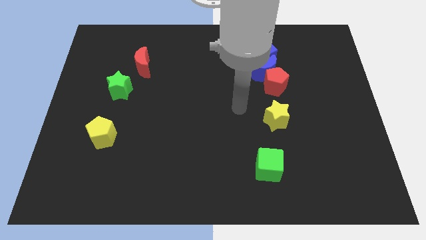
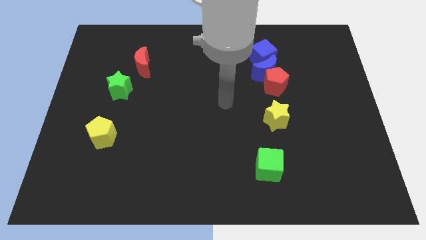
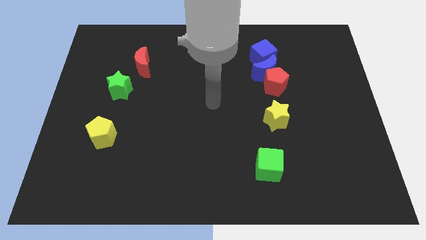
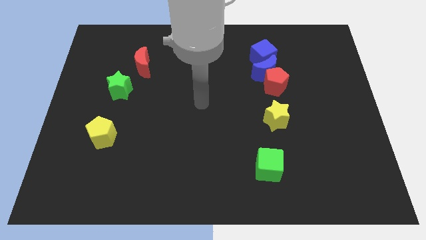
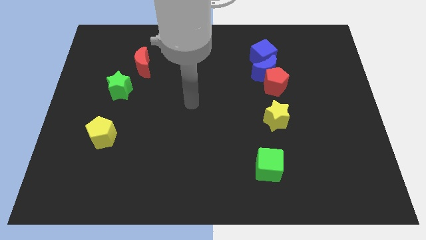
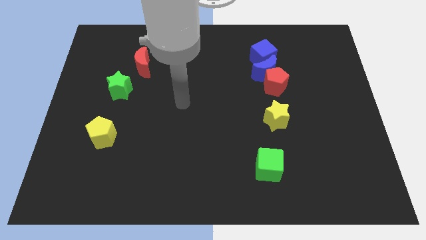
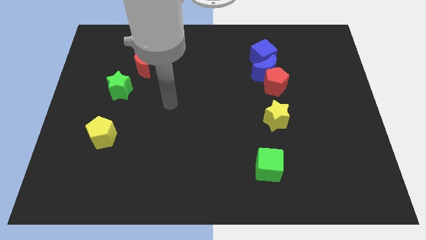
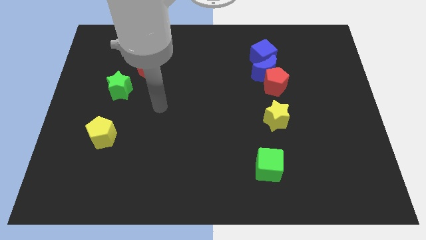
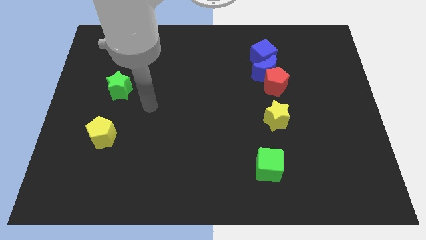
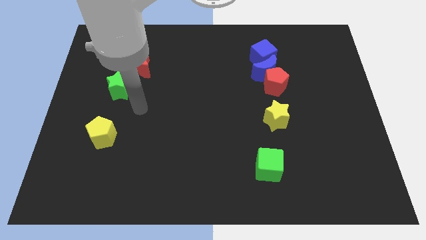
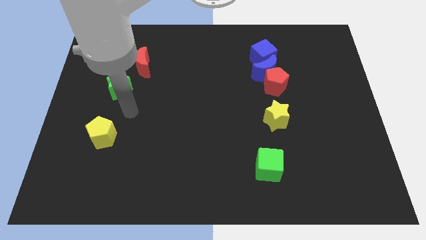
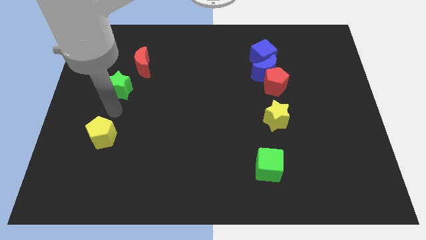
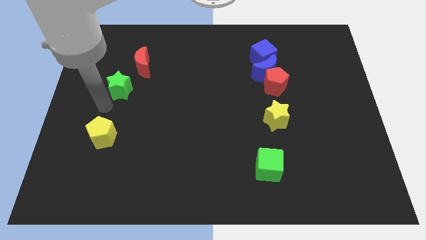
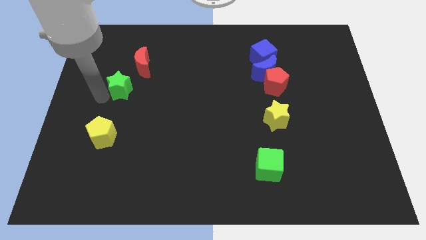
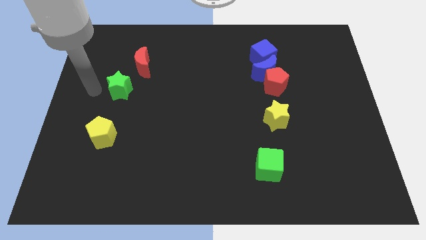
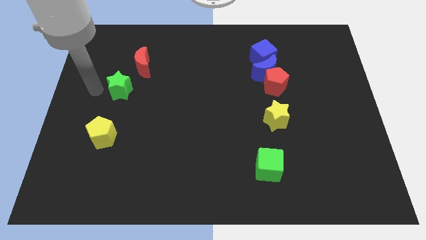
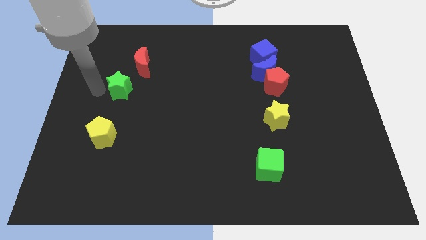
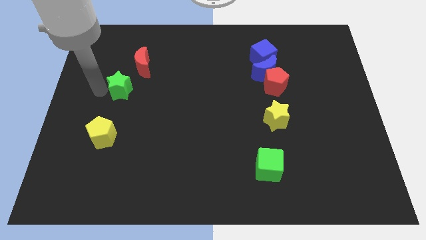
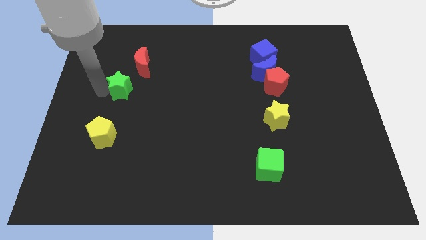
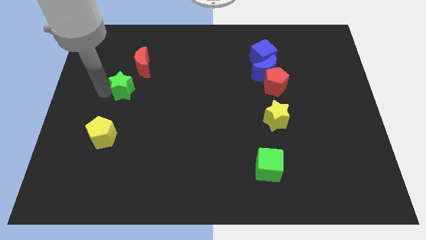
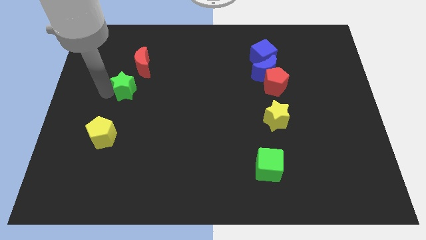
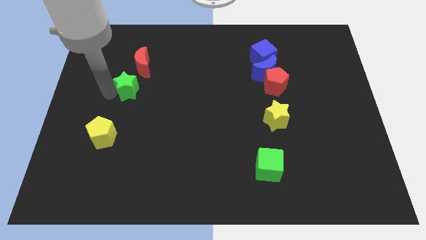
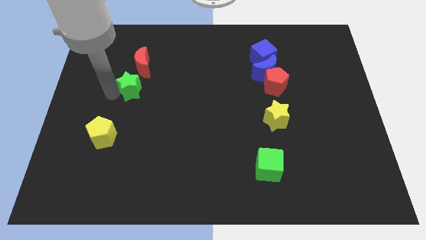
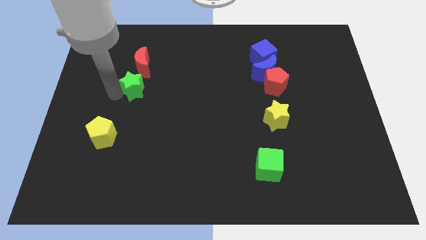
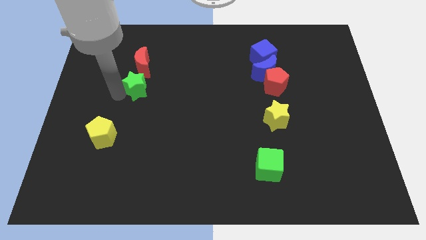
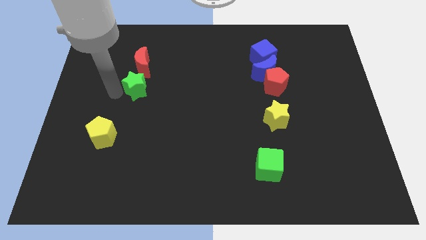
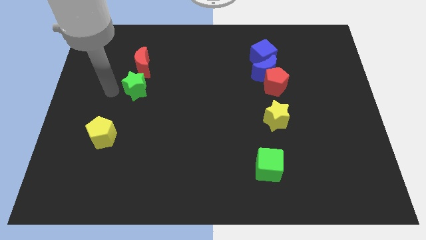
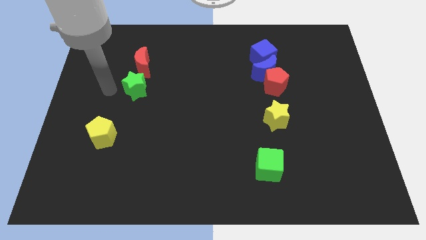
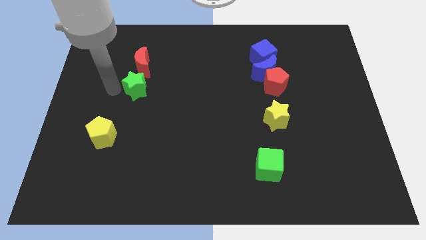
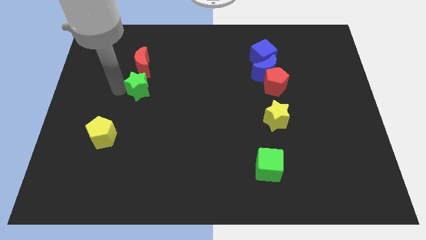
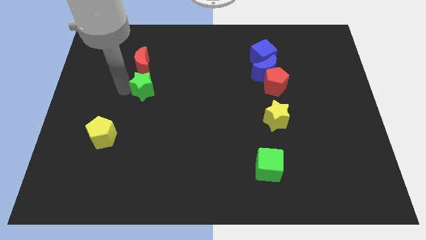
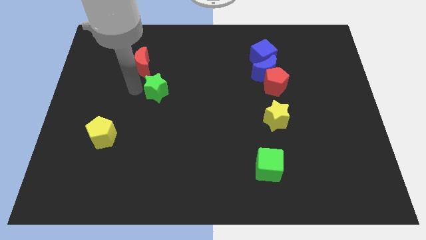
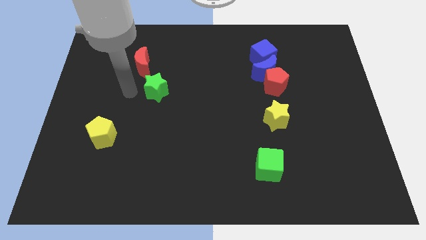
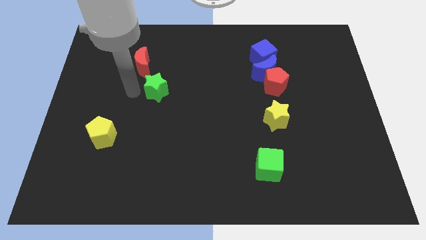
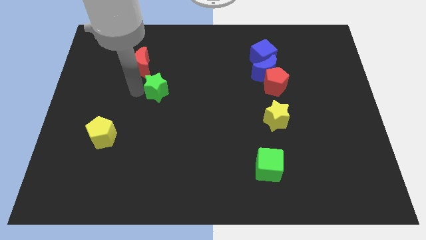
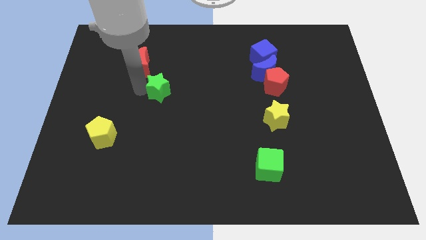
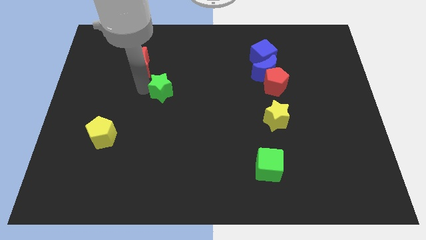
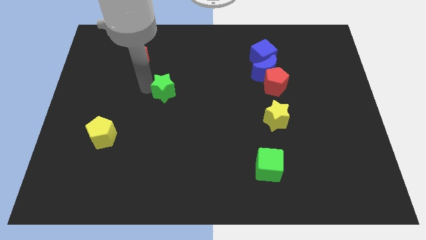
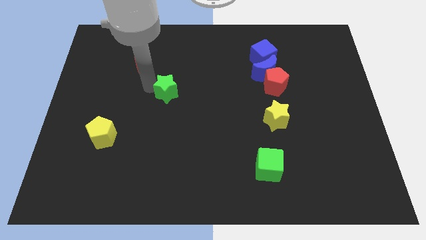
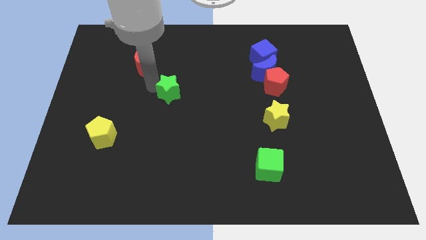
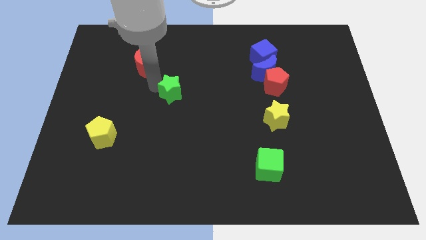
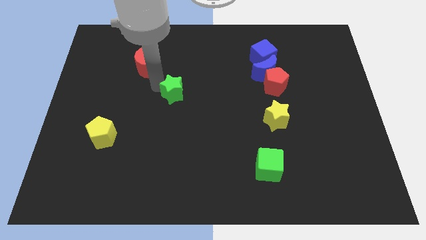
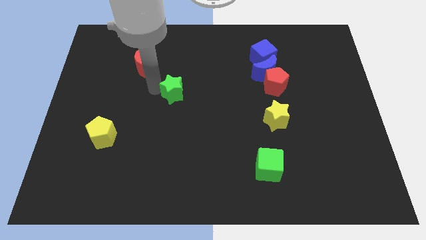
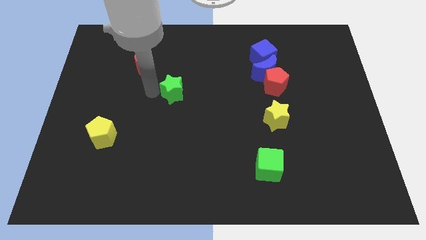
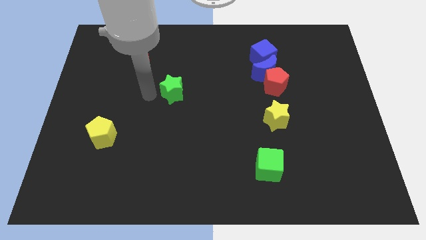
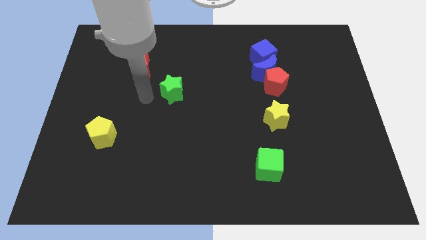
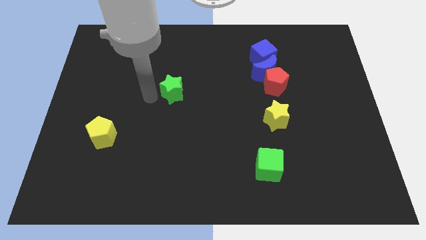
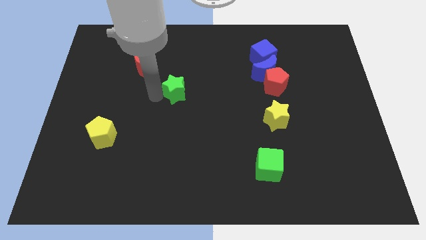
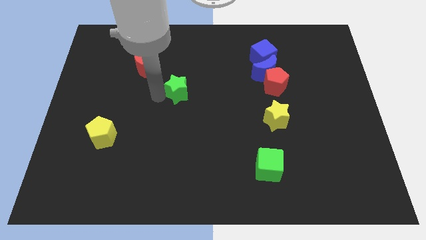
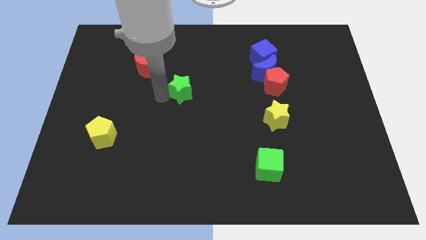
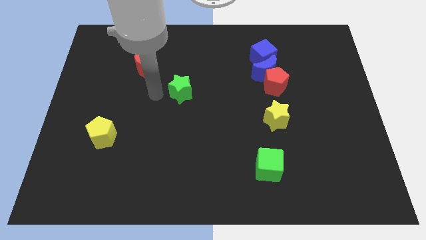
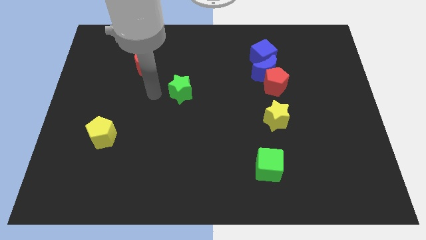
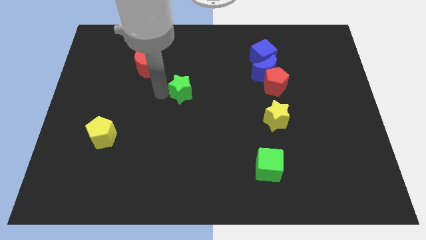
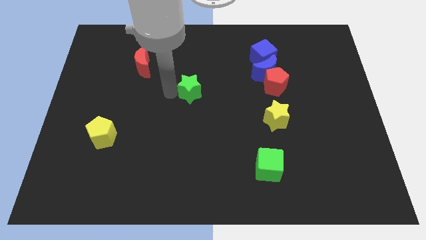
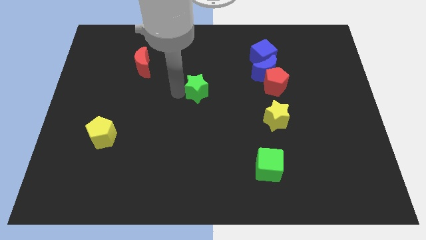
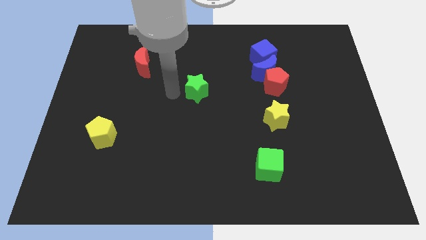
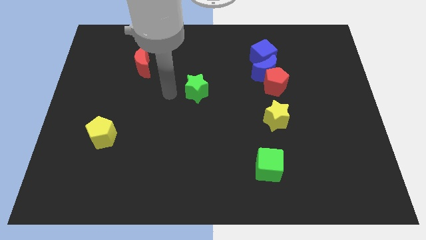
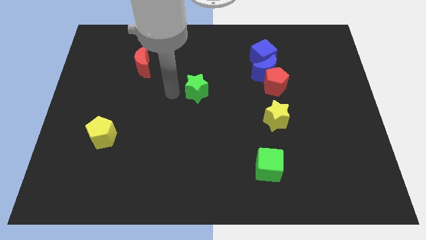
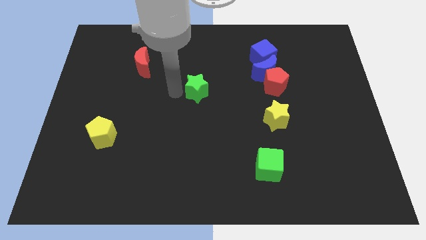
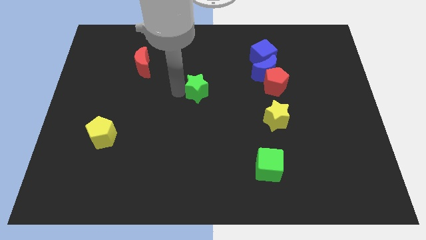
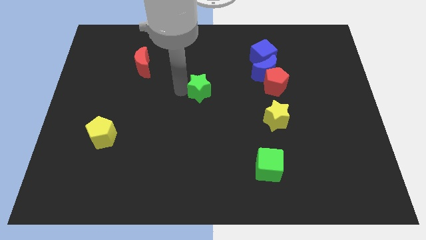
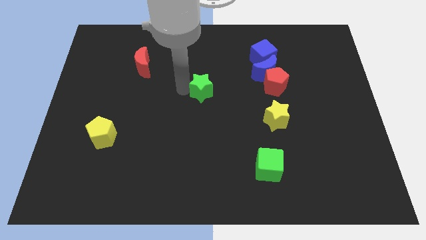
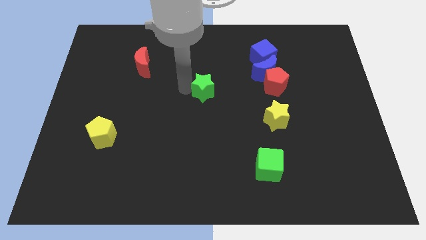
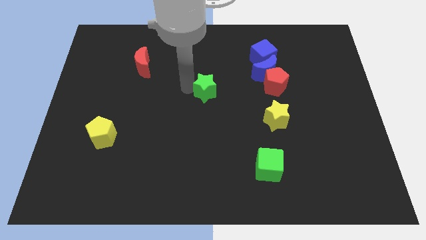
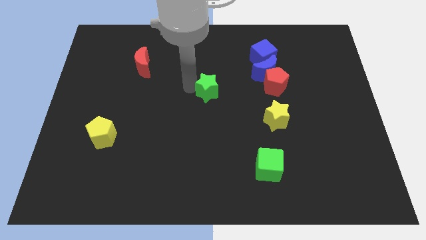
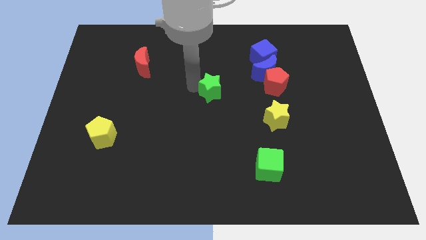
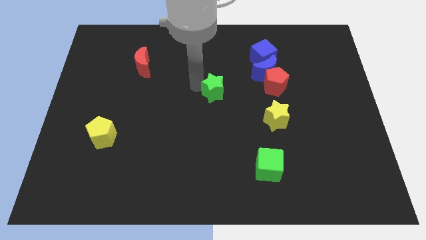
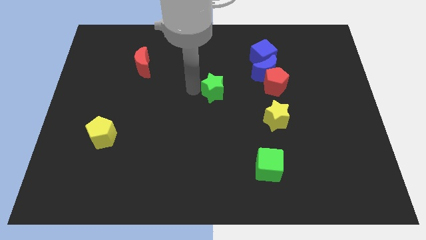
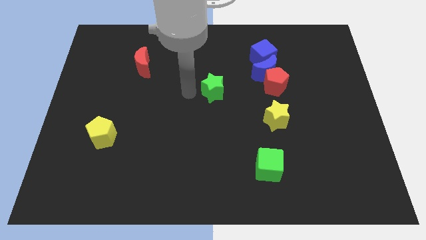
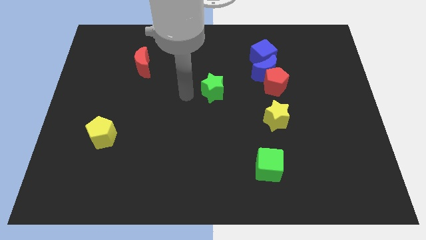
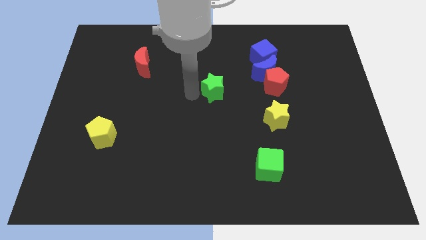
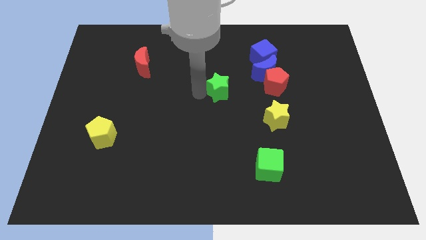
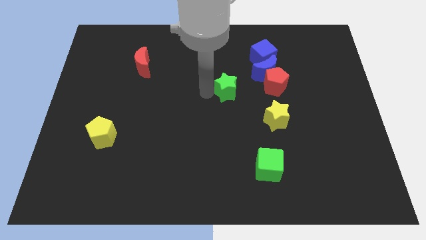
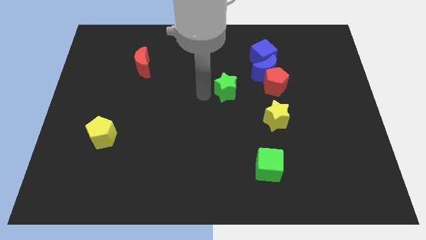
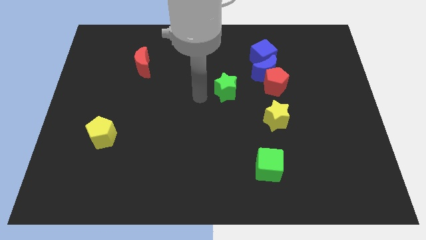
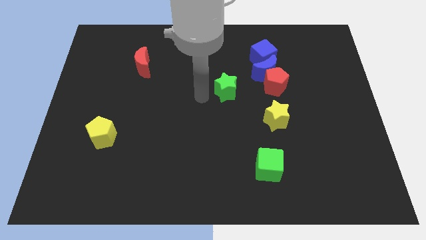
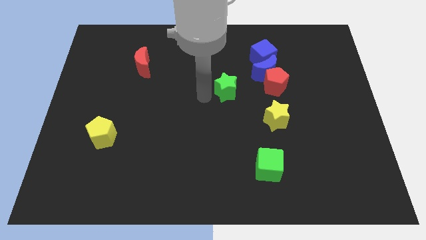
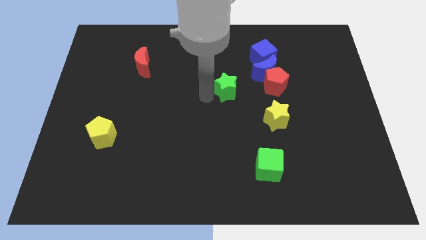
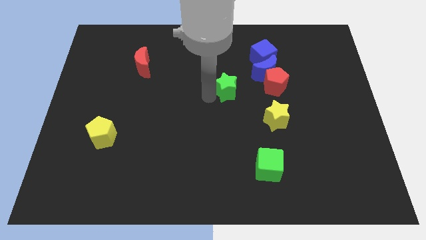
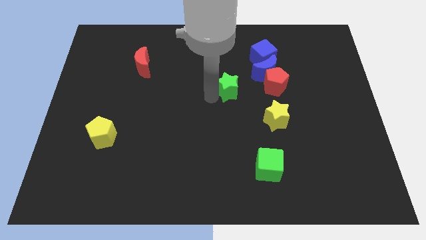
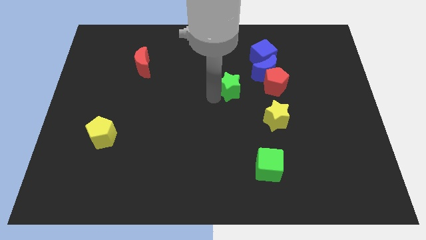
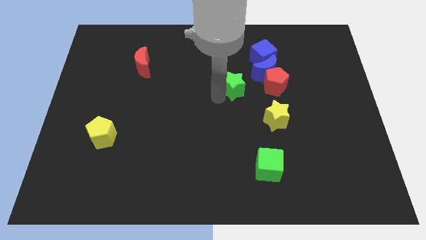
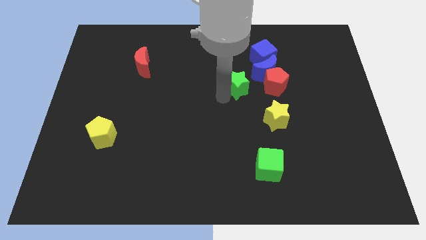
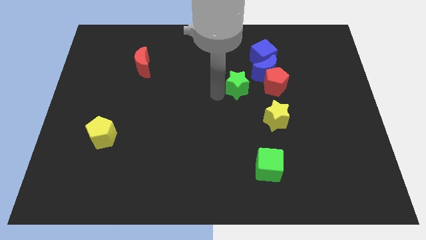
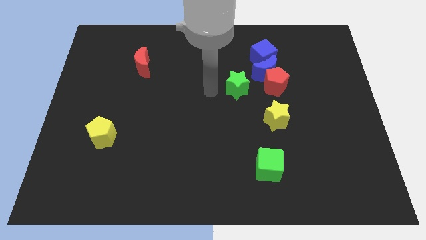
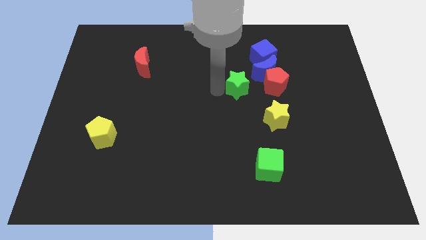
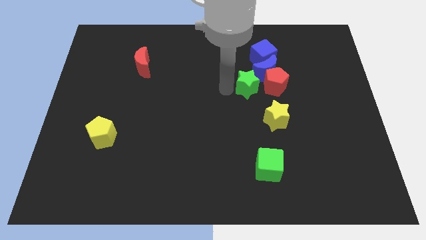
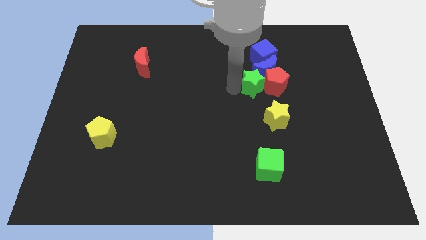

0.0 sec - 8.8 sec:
move the green star towards the red pentagon
